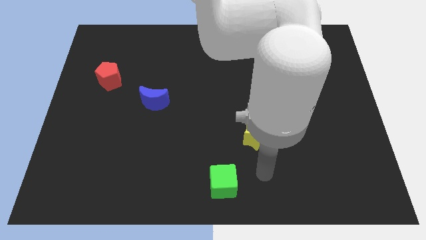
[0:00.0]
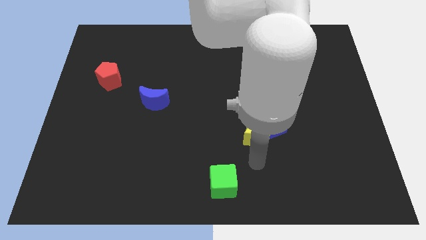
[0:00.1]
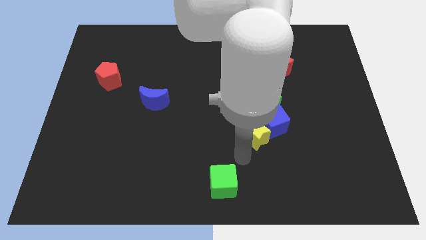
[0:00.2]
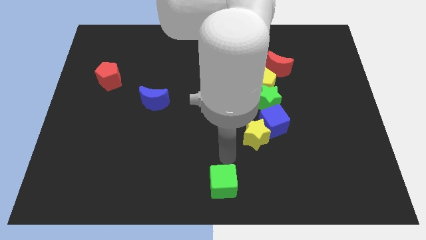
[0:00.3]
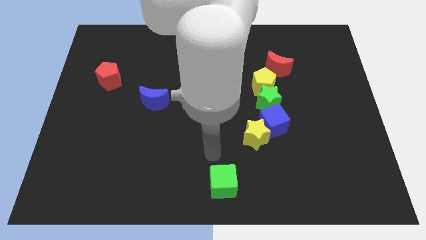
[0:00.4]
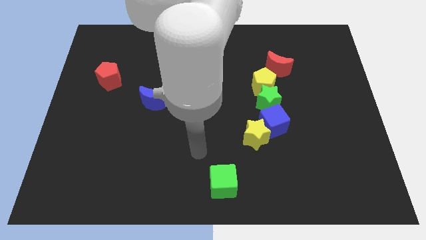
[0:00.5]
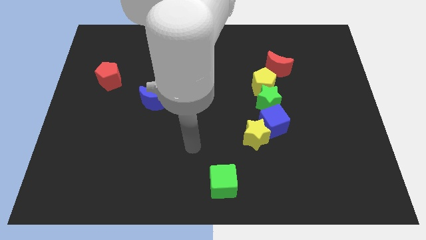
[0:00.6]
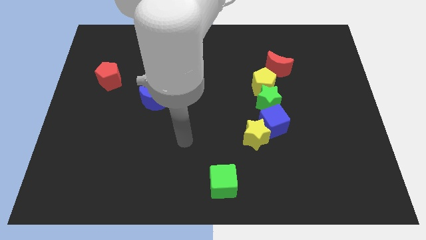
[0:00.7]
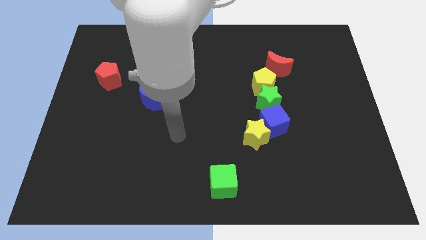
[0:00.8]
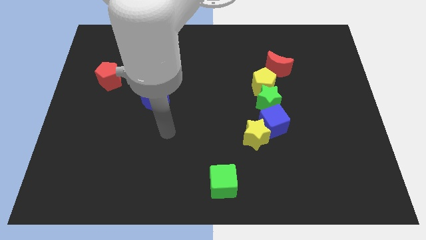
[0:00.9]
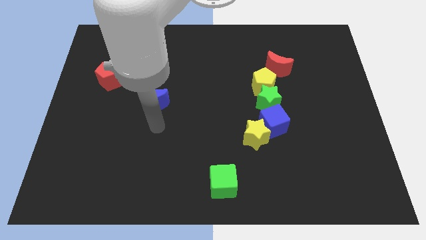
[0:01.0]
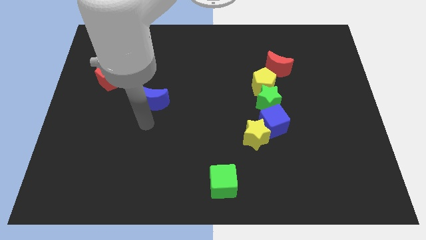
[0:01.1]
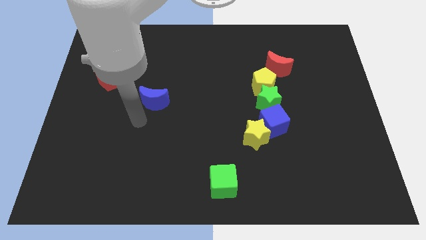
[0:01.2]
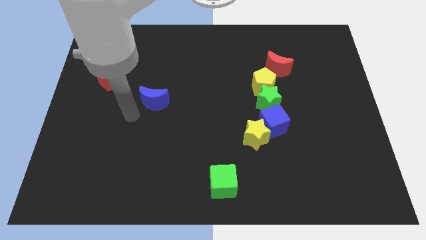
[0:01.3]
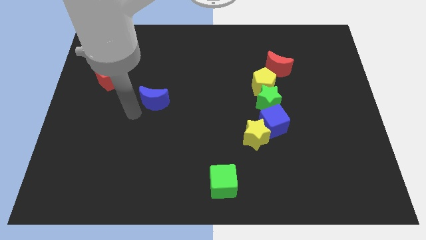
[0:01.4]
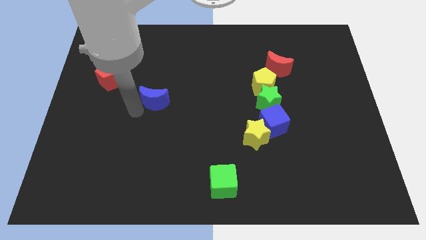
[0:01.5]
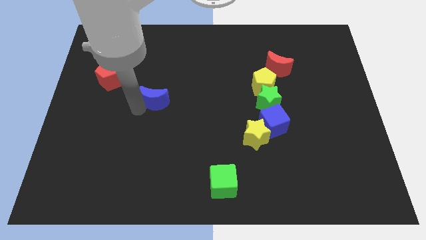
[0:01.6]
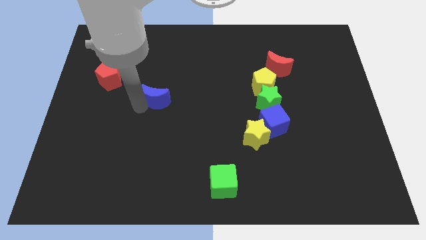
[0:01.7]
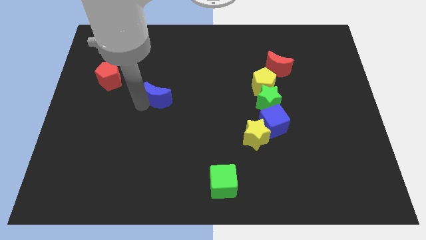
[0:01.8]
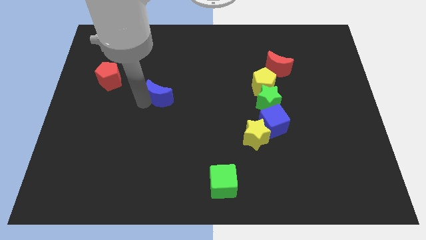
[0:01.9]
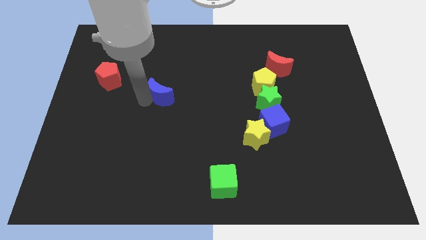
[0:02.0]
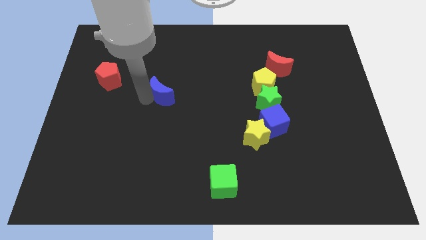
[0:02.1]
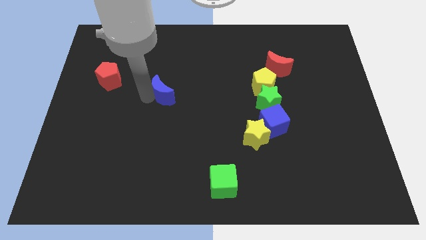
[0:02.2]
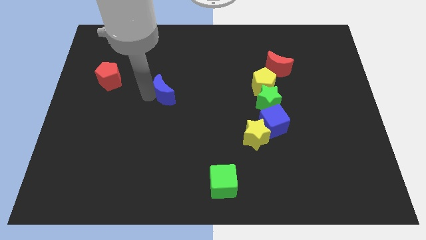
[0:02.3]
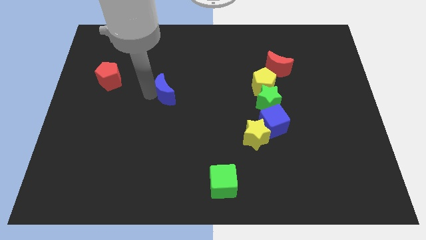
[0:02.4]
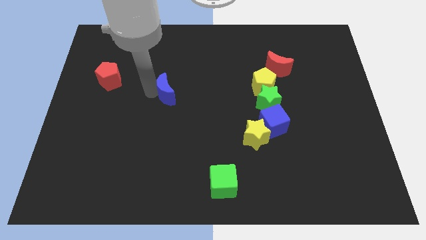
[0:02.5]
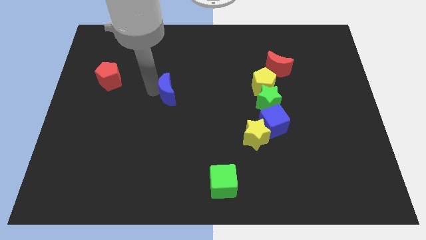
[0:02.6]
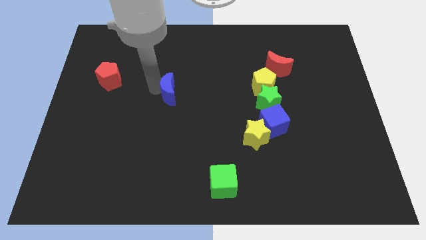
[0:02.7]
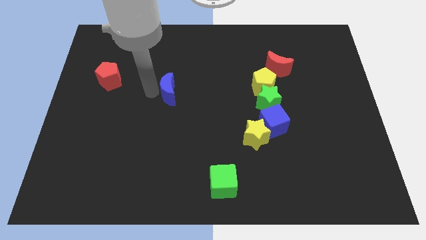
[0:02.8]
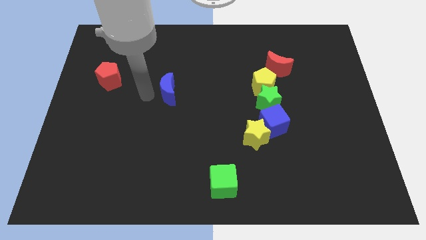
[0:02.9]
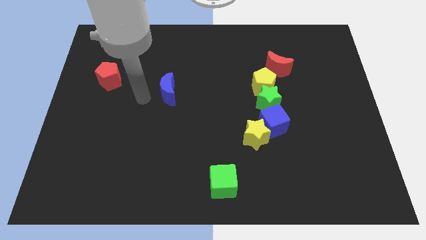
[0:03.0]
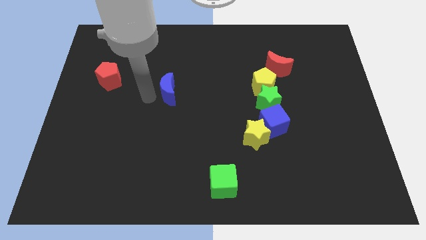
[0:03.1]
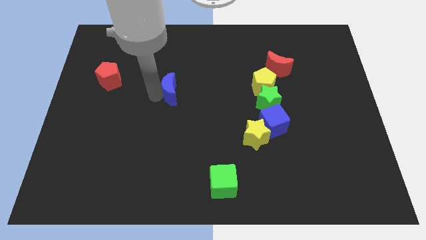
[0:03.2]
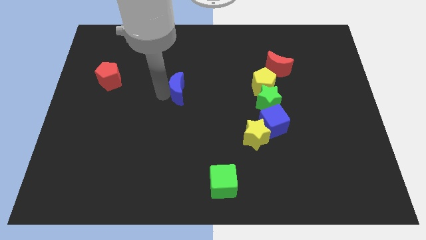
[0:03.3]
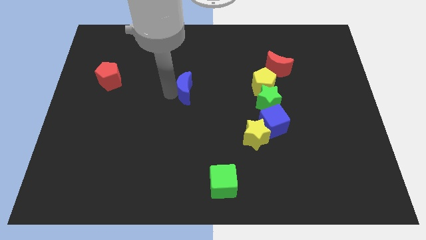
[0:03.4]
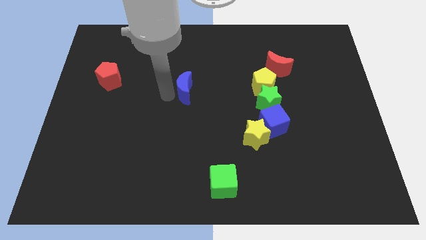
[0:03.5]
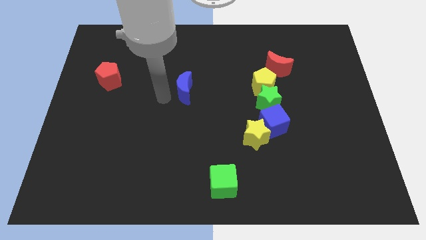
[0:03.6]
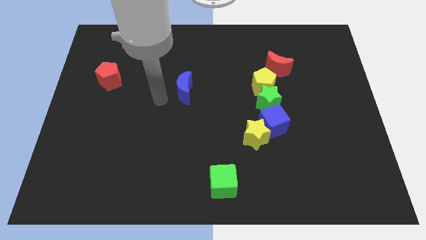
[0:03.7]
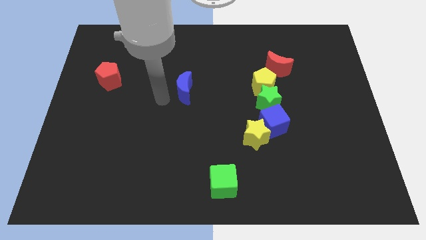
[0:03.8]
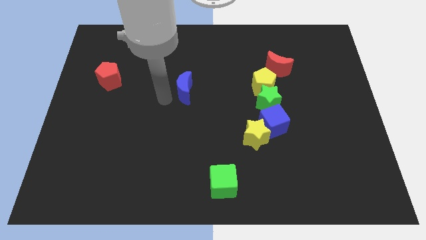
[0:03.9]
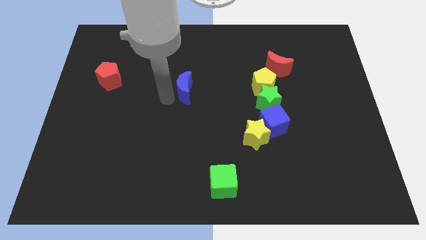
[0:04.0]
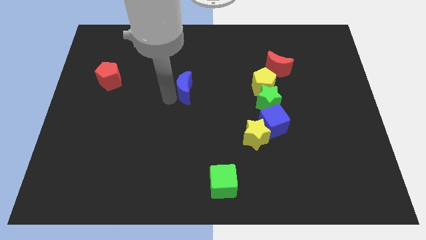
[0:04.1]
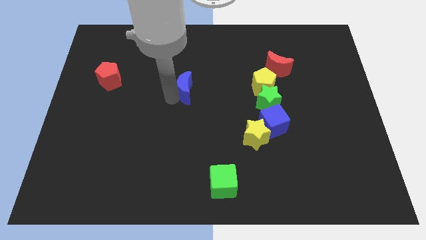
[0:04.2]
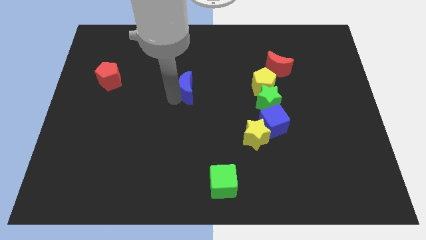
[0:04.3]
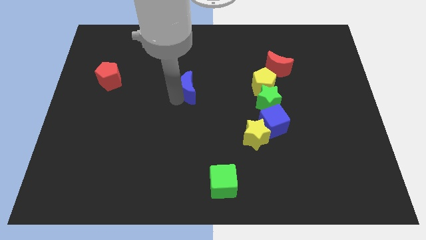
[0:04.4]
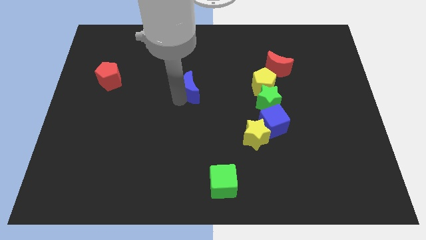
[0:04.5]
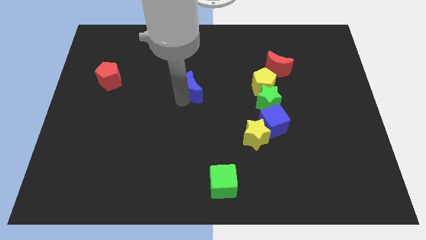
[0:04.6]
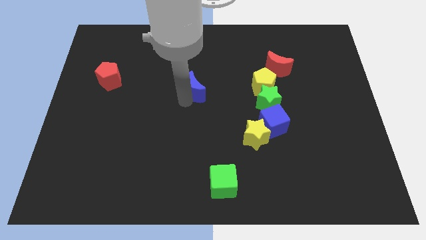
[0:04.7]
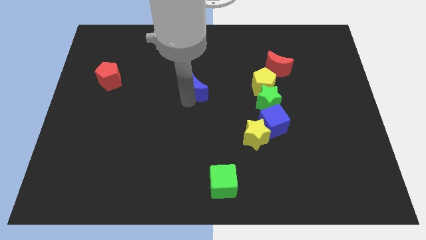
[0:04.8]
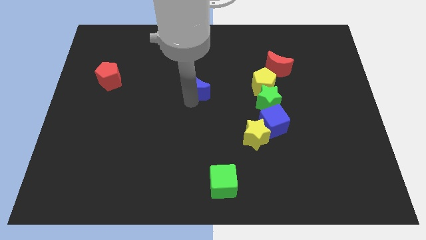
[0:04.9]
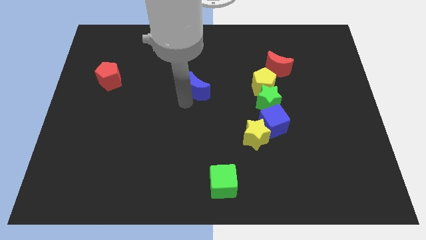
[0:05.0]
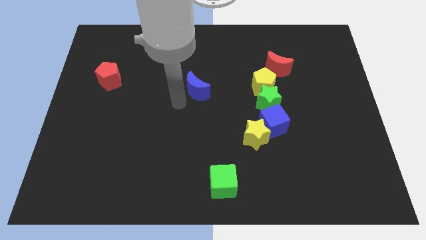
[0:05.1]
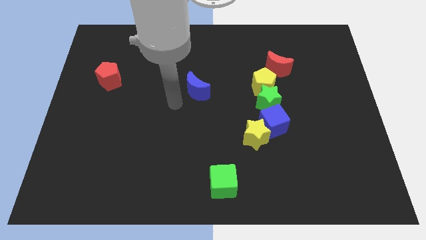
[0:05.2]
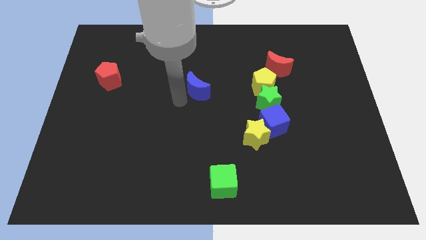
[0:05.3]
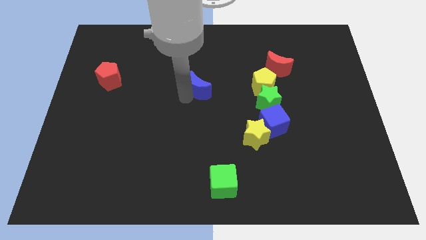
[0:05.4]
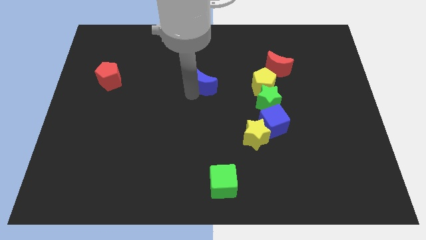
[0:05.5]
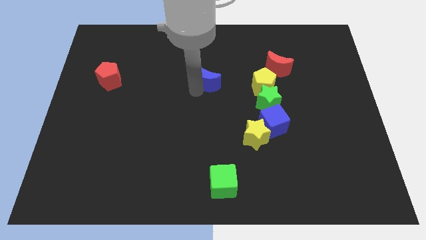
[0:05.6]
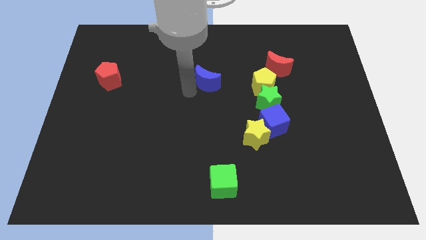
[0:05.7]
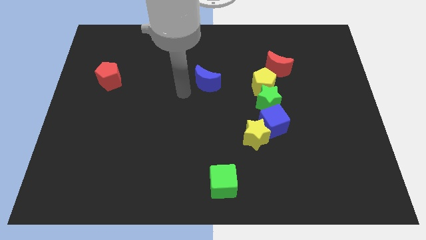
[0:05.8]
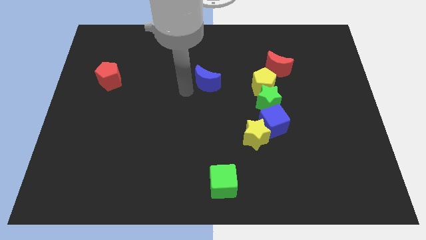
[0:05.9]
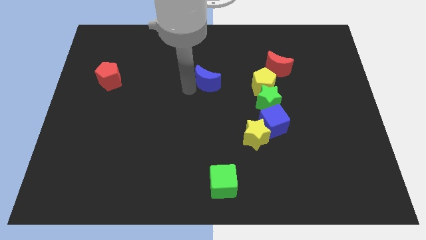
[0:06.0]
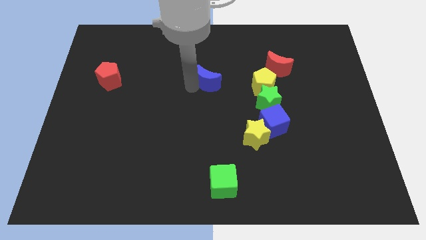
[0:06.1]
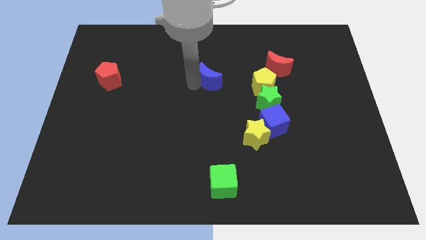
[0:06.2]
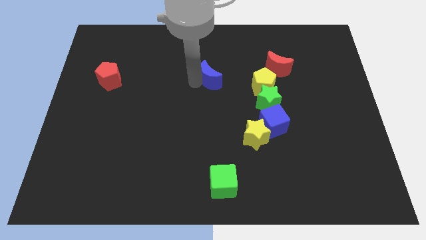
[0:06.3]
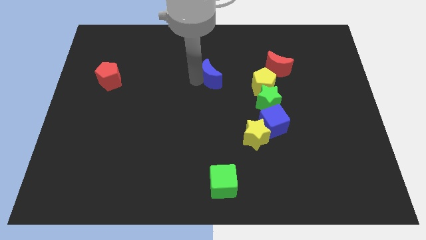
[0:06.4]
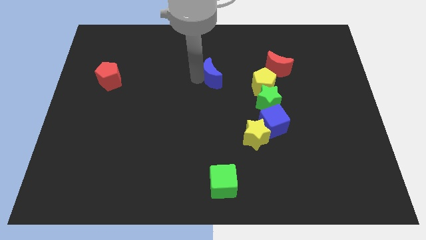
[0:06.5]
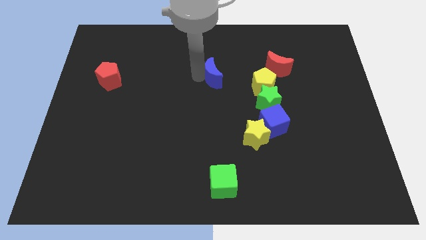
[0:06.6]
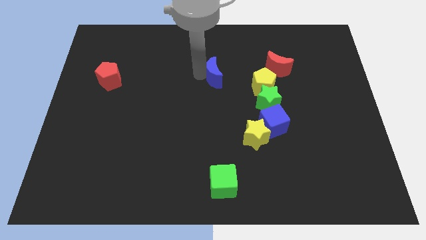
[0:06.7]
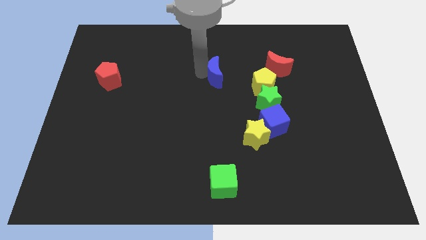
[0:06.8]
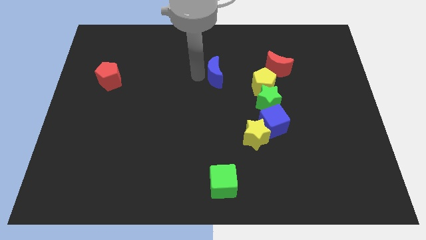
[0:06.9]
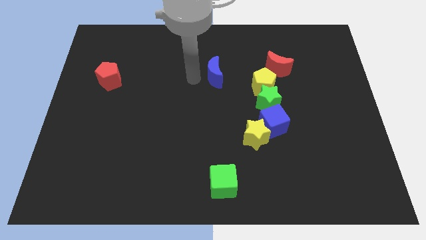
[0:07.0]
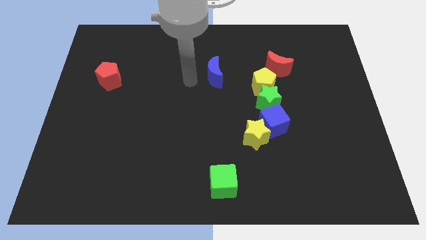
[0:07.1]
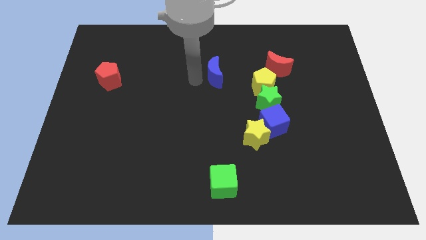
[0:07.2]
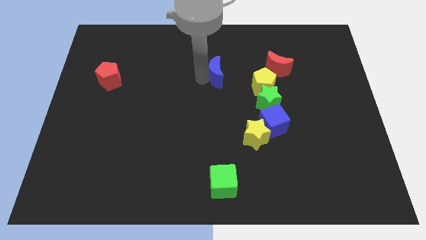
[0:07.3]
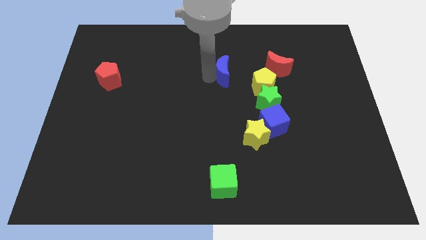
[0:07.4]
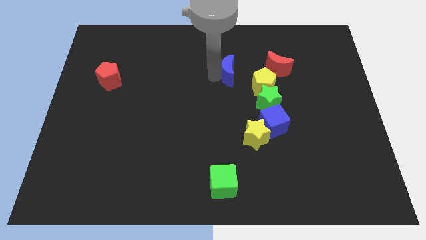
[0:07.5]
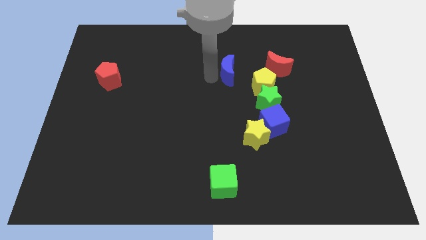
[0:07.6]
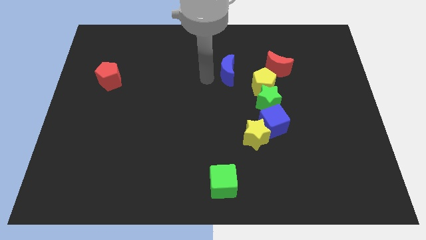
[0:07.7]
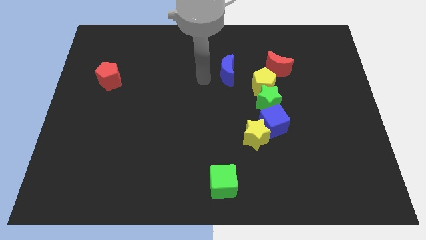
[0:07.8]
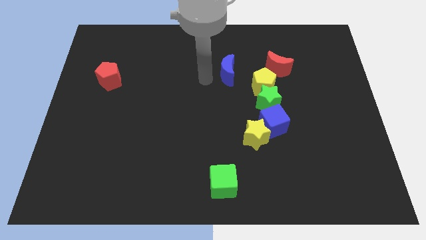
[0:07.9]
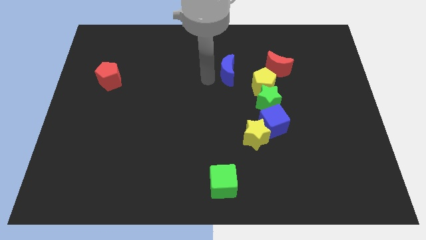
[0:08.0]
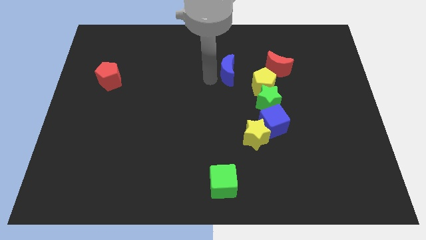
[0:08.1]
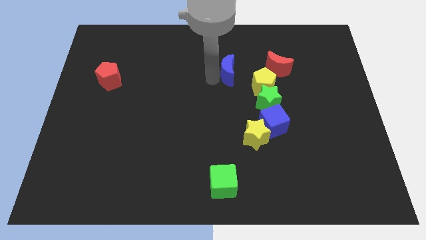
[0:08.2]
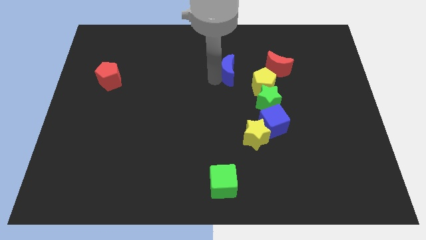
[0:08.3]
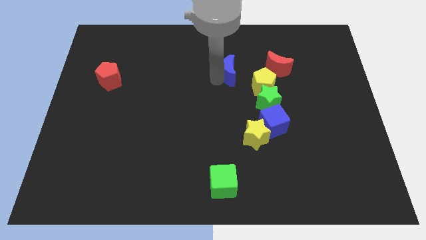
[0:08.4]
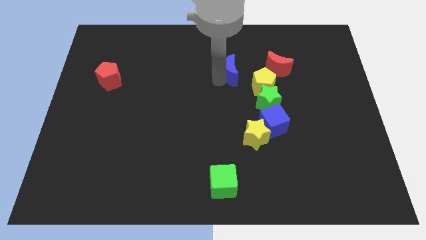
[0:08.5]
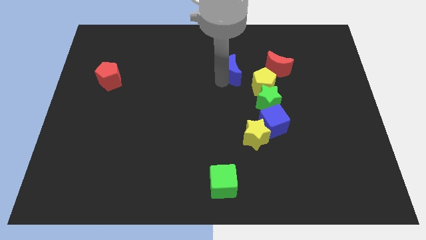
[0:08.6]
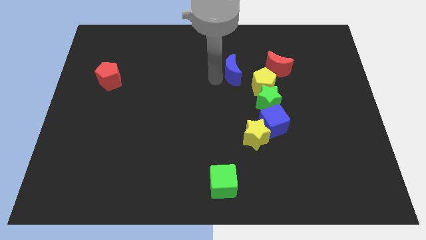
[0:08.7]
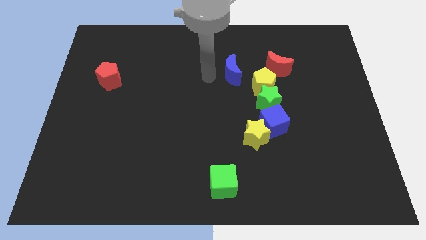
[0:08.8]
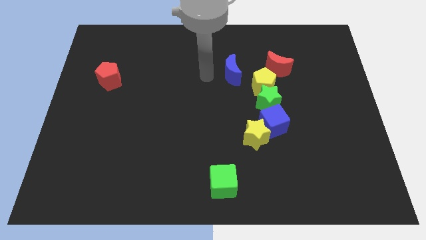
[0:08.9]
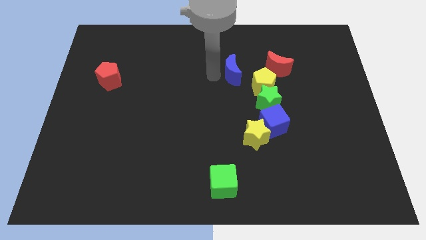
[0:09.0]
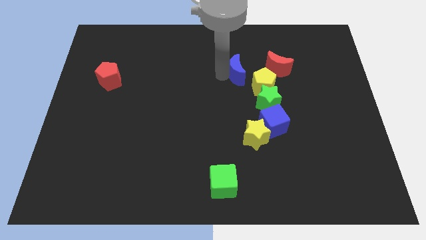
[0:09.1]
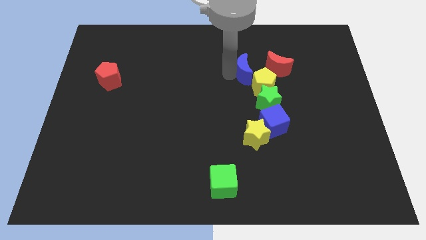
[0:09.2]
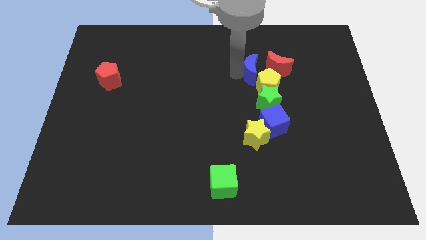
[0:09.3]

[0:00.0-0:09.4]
slide the blue moon to the top of the green star
